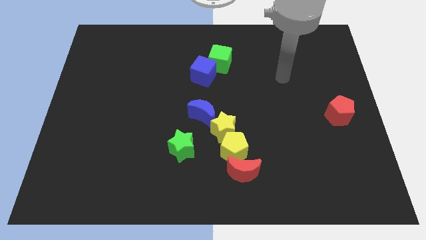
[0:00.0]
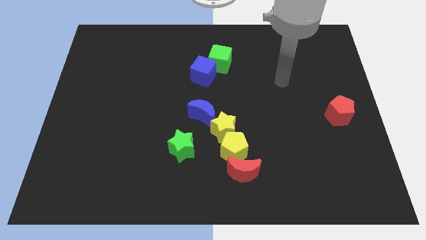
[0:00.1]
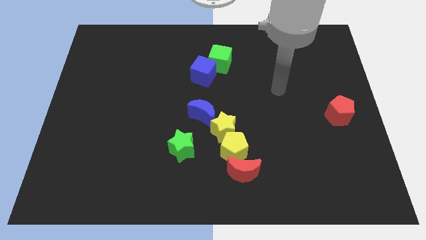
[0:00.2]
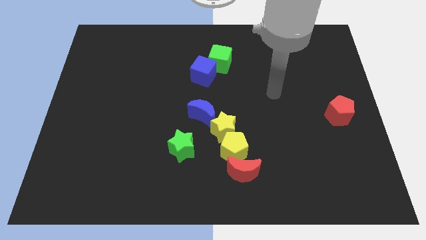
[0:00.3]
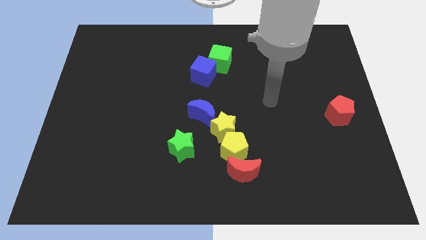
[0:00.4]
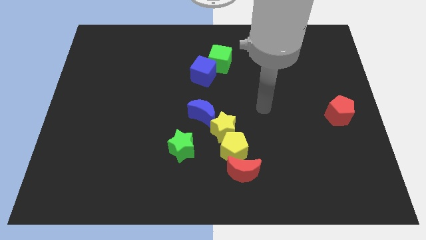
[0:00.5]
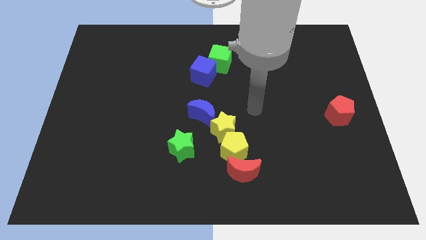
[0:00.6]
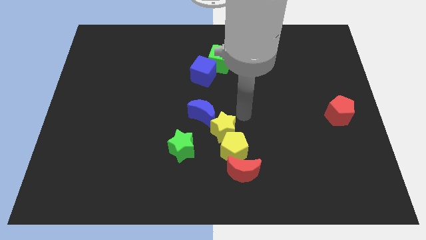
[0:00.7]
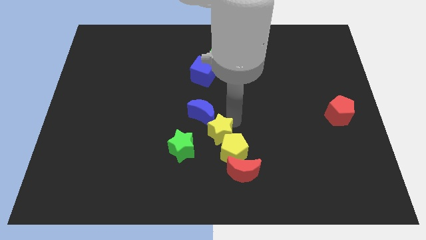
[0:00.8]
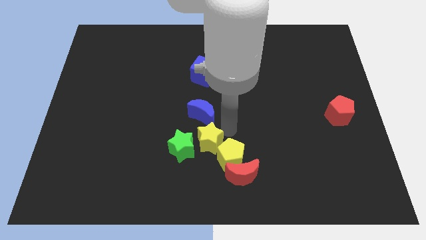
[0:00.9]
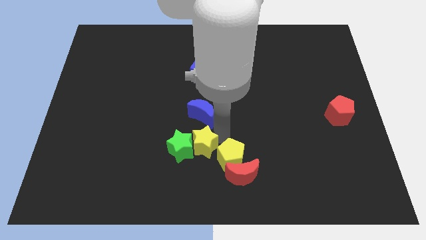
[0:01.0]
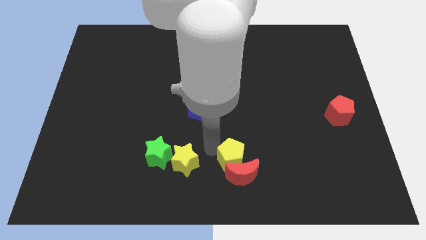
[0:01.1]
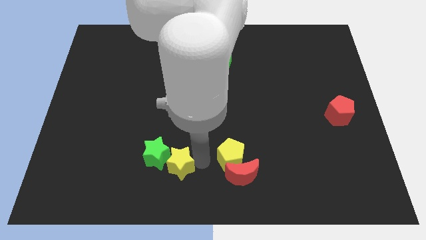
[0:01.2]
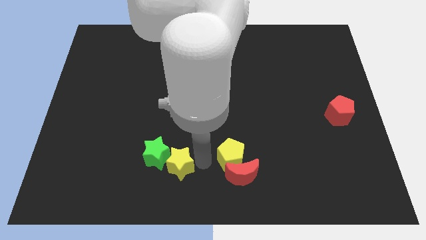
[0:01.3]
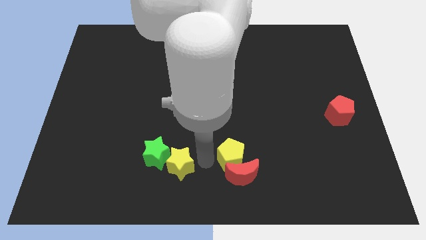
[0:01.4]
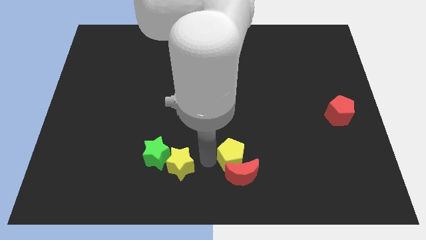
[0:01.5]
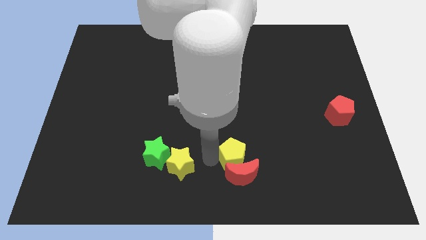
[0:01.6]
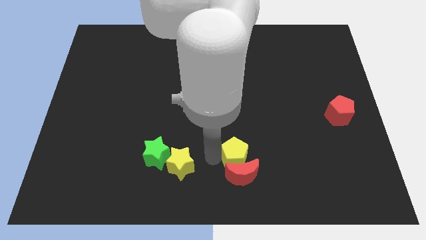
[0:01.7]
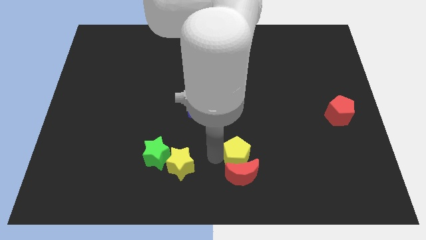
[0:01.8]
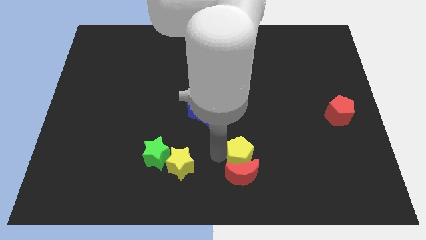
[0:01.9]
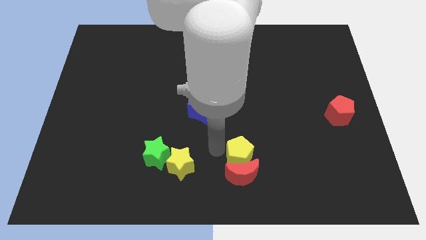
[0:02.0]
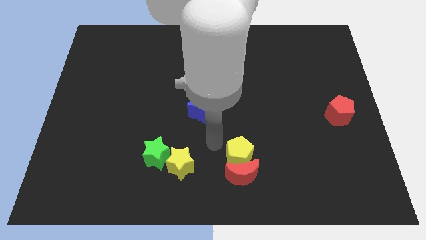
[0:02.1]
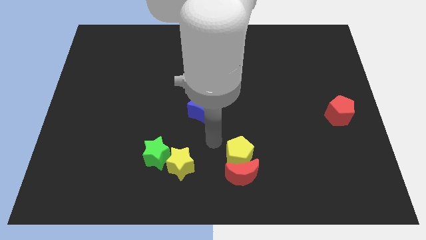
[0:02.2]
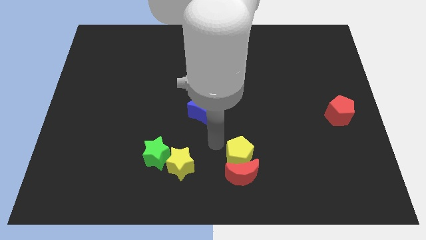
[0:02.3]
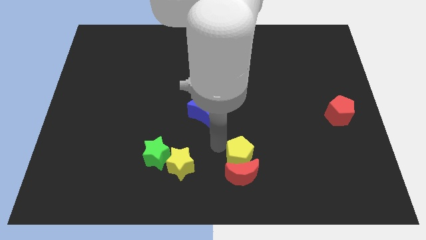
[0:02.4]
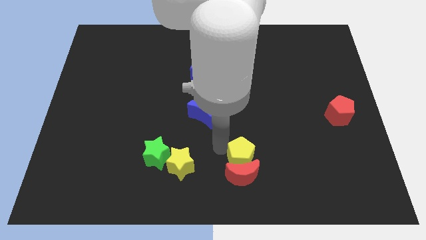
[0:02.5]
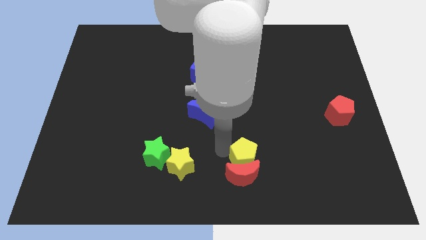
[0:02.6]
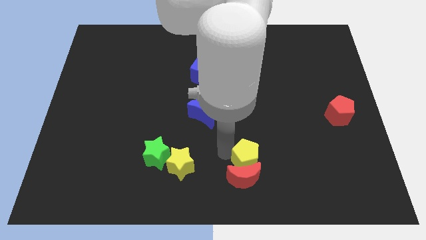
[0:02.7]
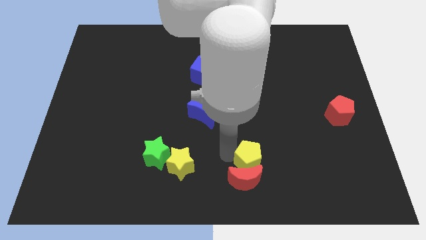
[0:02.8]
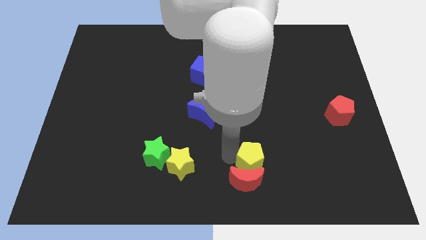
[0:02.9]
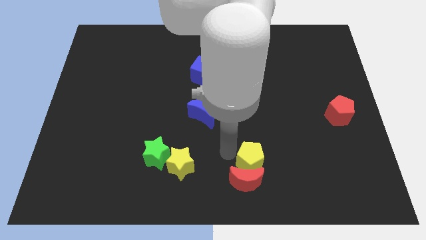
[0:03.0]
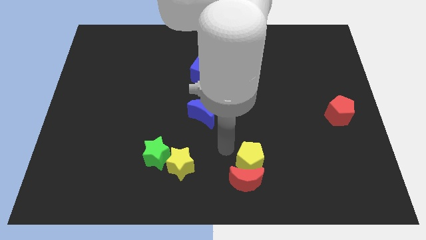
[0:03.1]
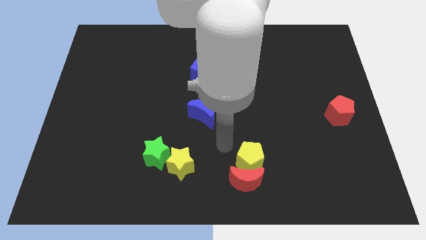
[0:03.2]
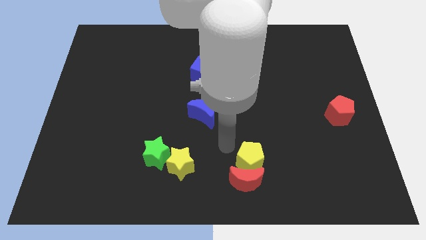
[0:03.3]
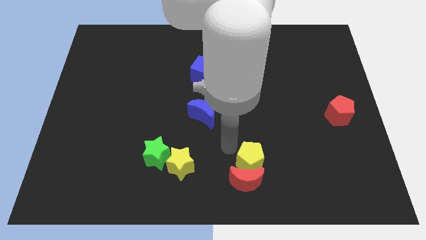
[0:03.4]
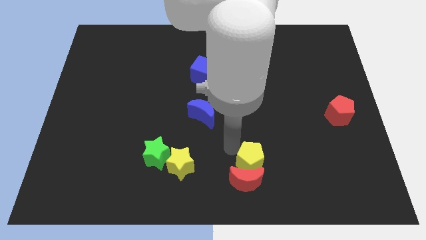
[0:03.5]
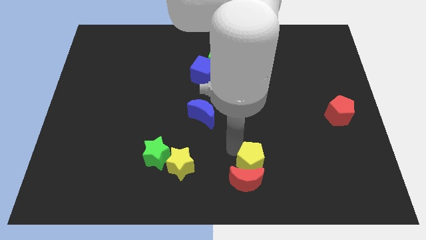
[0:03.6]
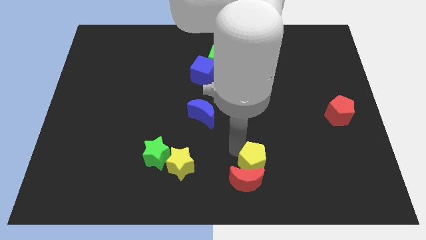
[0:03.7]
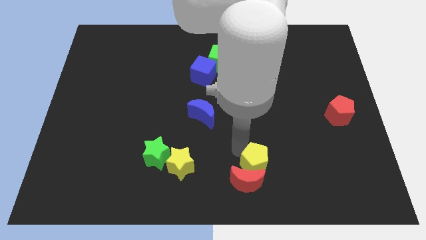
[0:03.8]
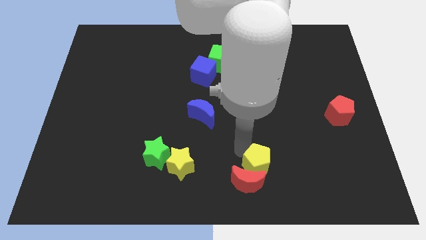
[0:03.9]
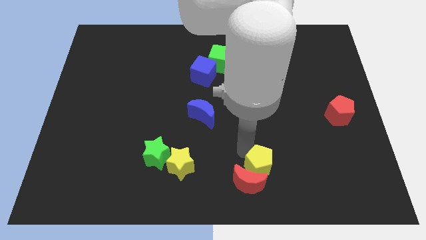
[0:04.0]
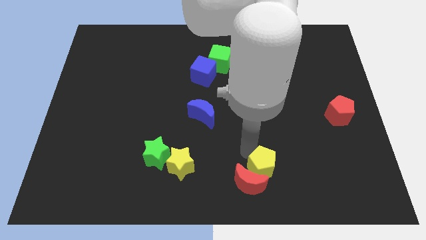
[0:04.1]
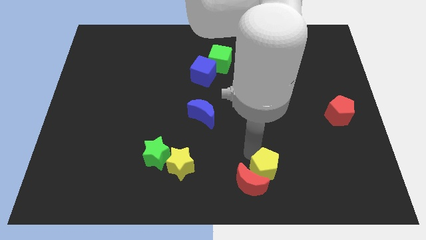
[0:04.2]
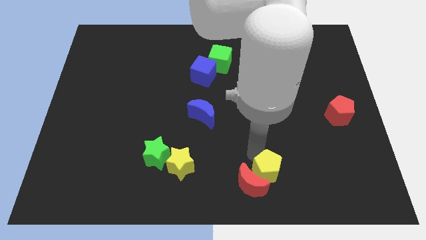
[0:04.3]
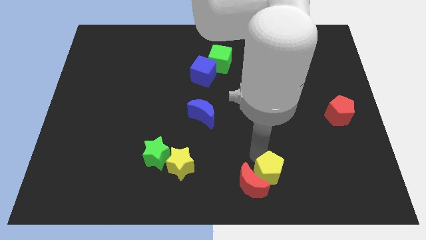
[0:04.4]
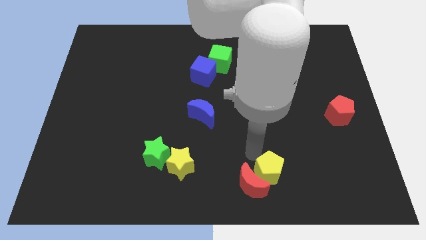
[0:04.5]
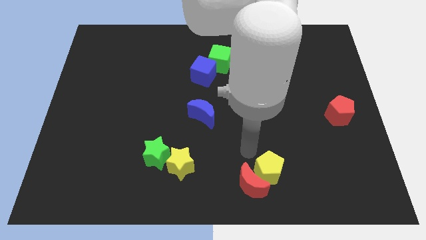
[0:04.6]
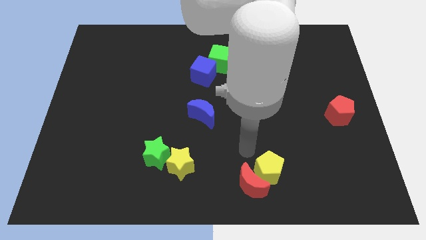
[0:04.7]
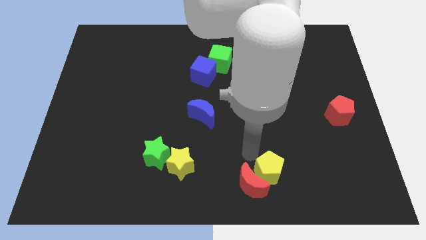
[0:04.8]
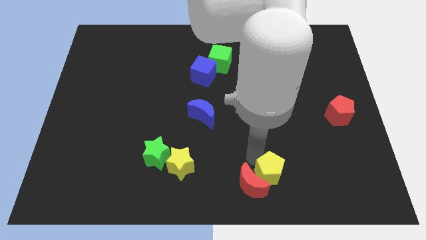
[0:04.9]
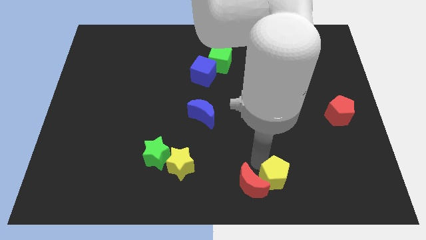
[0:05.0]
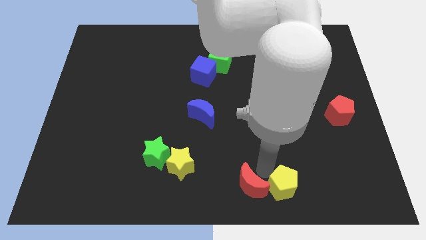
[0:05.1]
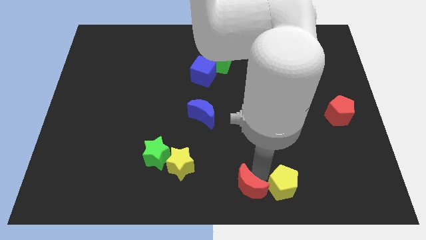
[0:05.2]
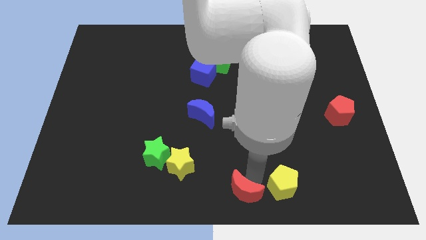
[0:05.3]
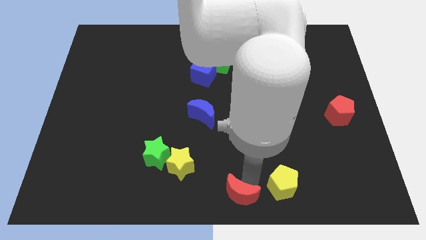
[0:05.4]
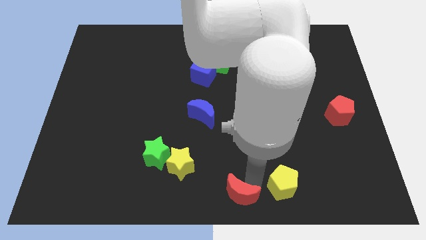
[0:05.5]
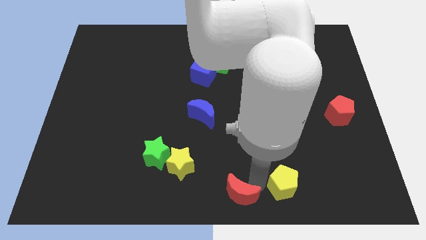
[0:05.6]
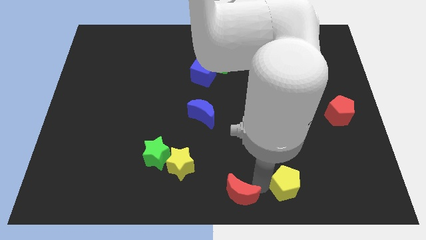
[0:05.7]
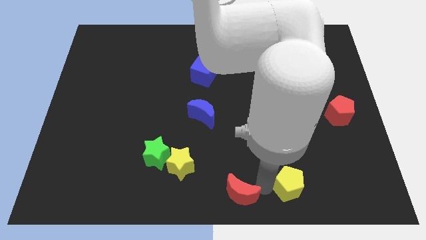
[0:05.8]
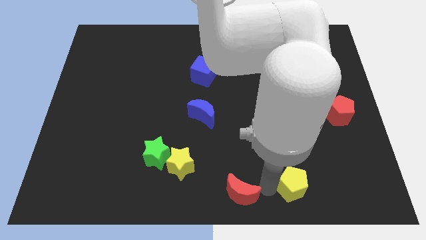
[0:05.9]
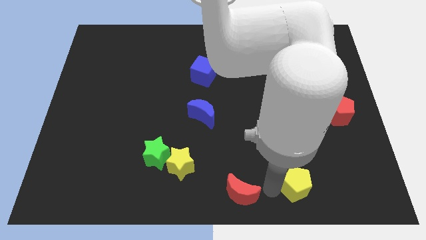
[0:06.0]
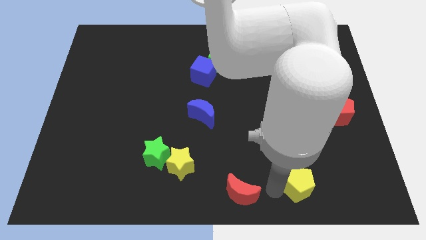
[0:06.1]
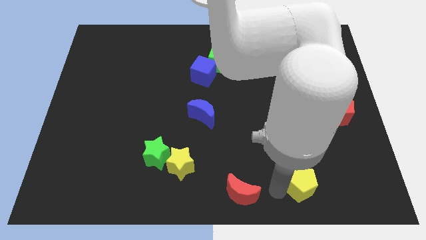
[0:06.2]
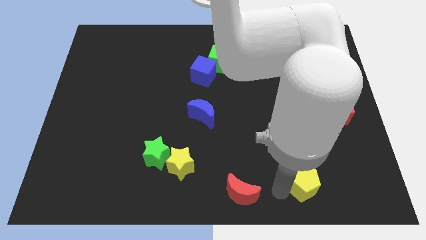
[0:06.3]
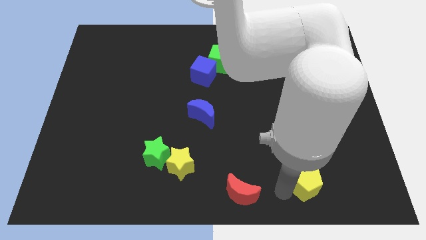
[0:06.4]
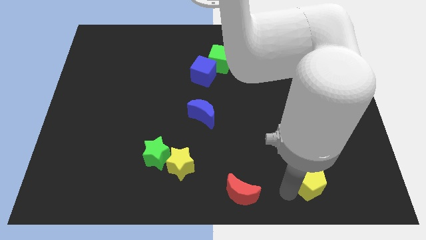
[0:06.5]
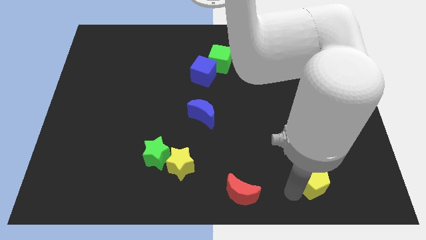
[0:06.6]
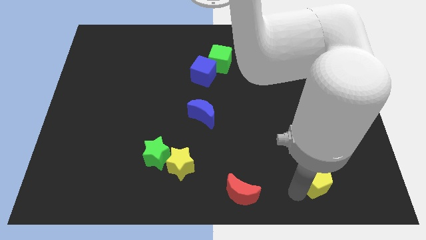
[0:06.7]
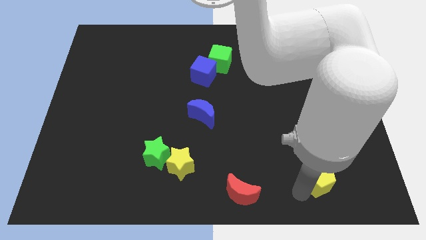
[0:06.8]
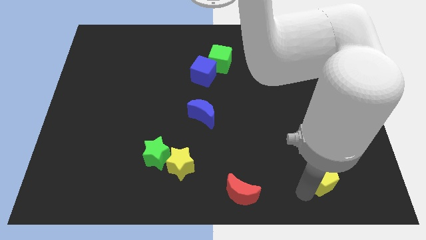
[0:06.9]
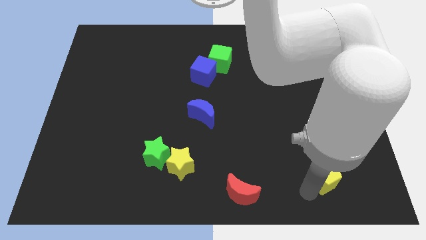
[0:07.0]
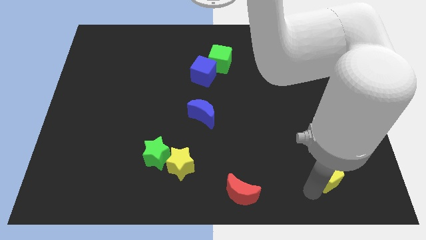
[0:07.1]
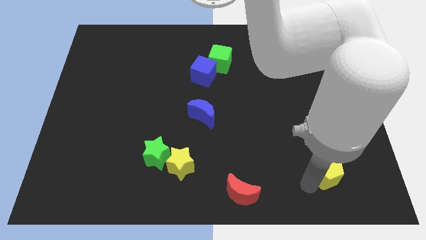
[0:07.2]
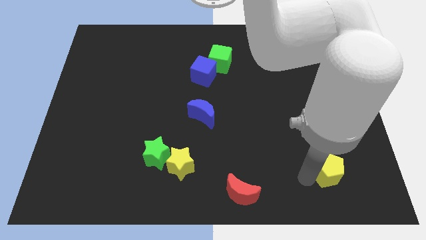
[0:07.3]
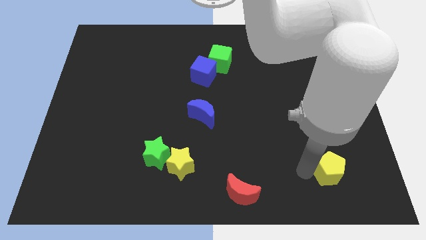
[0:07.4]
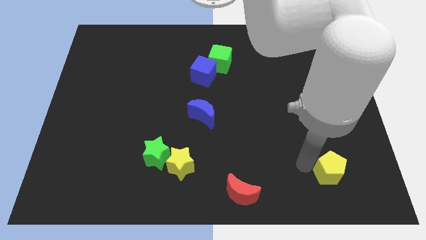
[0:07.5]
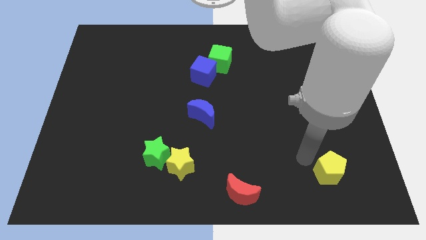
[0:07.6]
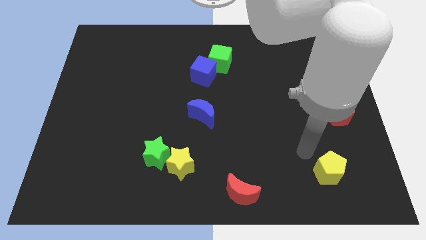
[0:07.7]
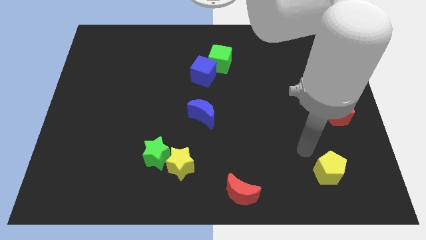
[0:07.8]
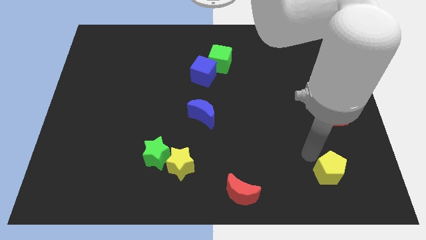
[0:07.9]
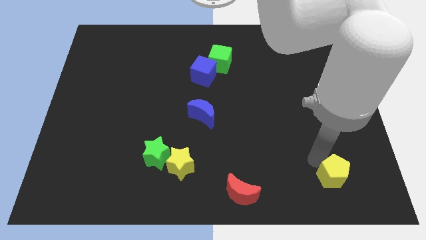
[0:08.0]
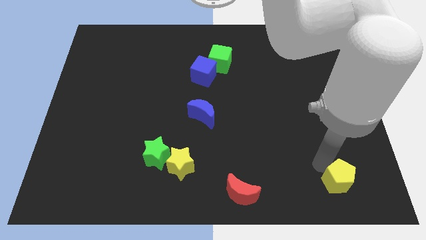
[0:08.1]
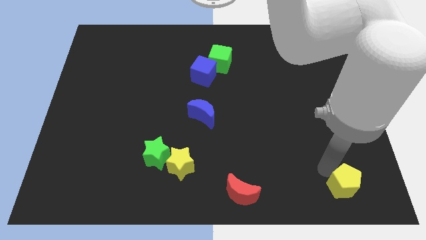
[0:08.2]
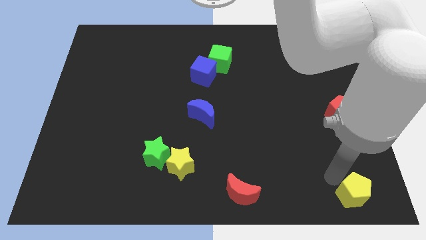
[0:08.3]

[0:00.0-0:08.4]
move the yellow pentagon to the bottom right corner
